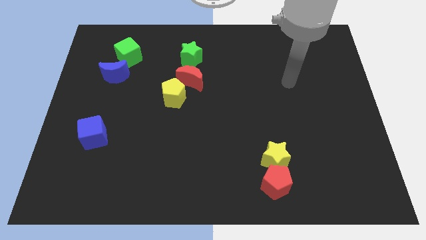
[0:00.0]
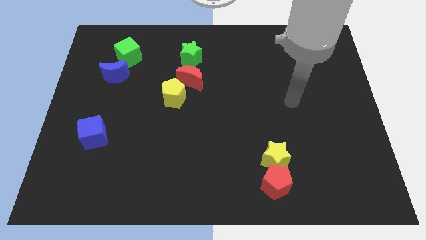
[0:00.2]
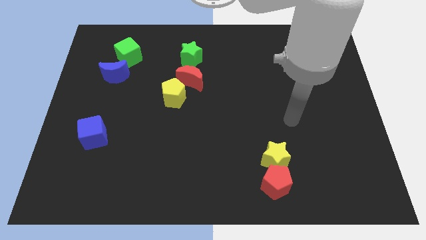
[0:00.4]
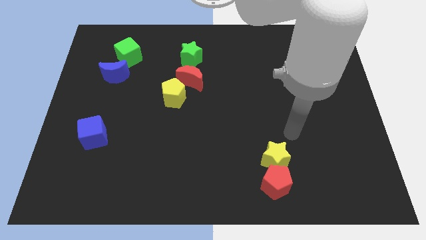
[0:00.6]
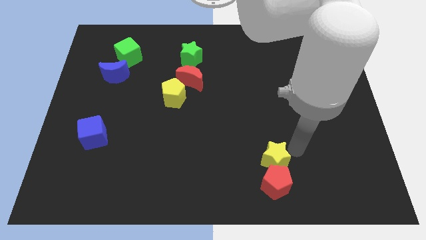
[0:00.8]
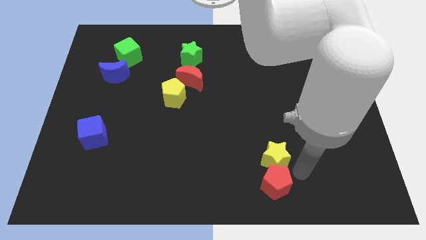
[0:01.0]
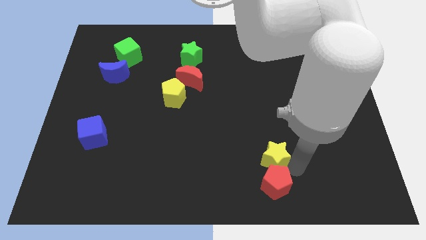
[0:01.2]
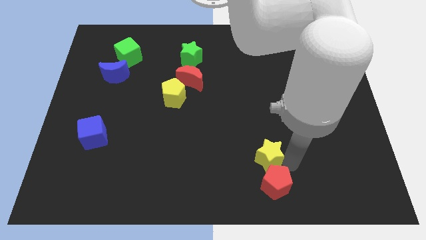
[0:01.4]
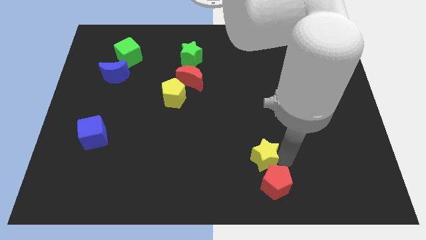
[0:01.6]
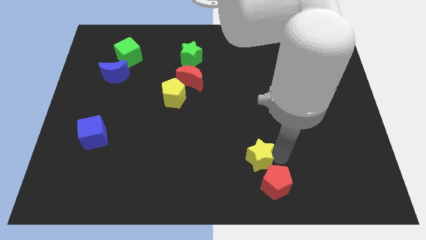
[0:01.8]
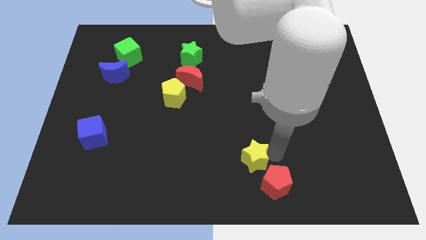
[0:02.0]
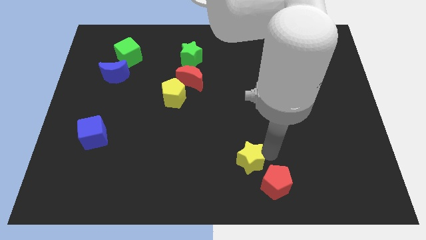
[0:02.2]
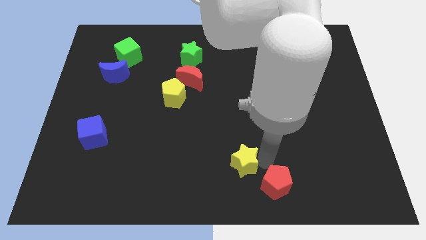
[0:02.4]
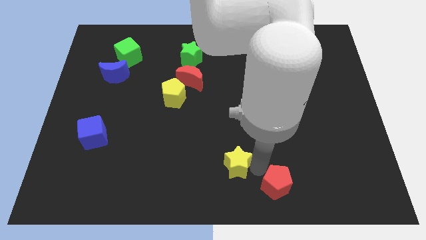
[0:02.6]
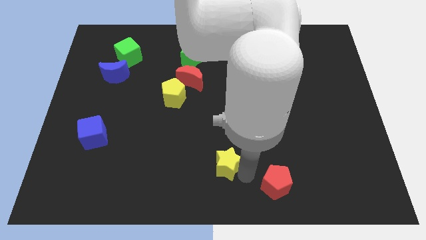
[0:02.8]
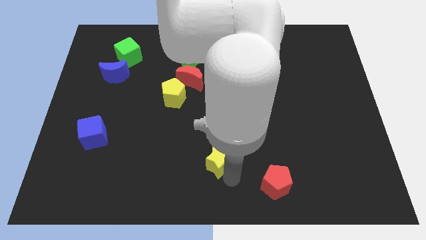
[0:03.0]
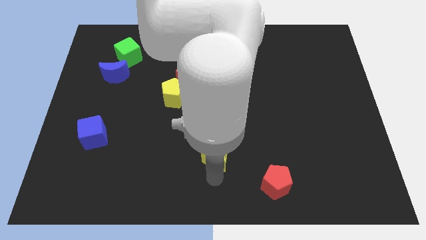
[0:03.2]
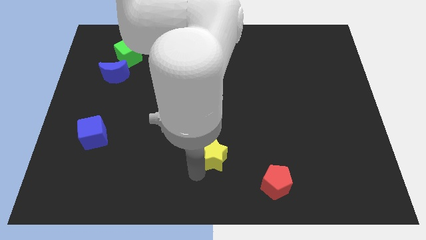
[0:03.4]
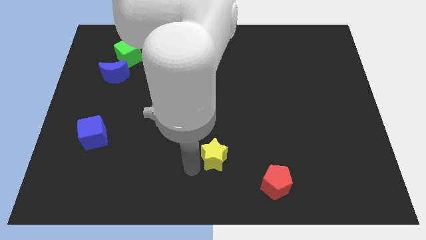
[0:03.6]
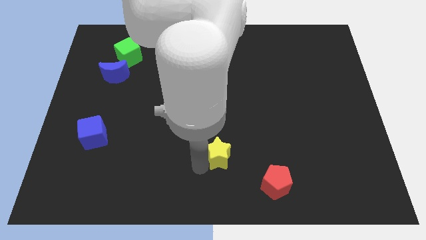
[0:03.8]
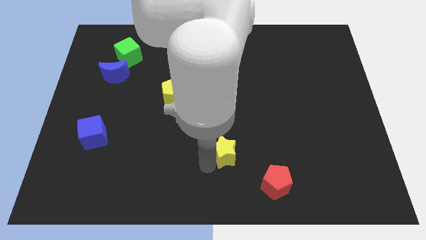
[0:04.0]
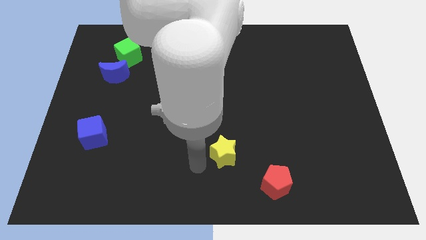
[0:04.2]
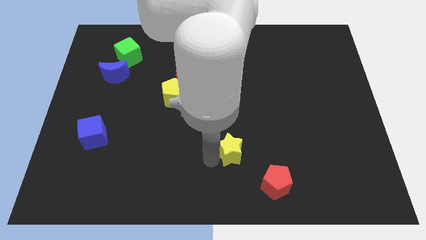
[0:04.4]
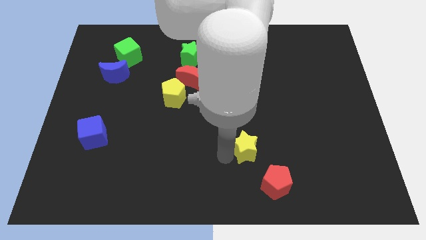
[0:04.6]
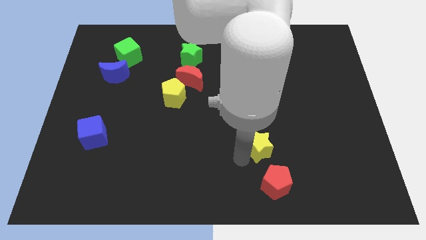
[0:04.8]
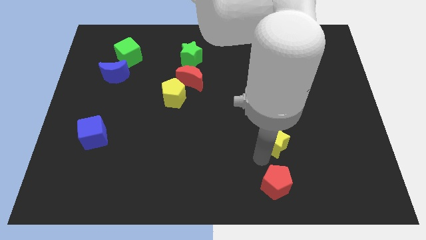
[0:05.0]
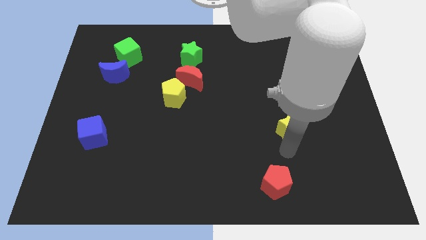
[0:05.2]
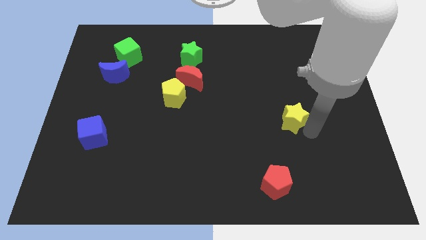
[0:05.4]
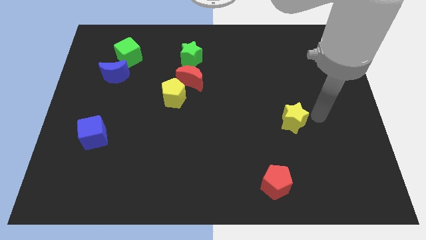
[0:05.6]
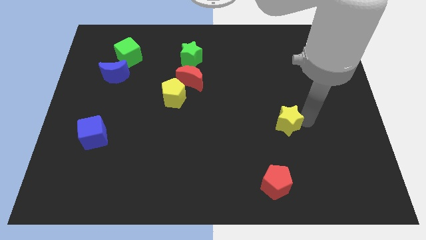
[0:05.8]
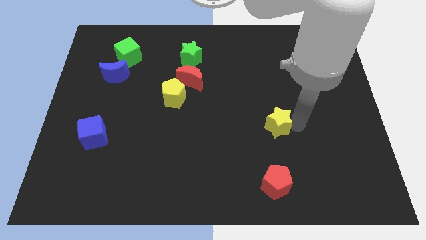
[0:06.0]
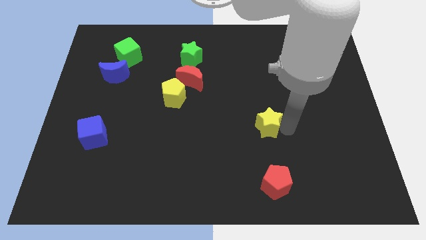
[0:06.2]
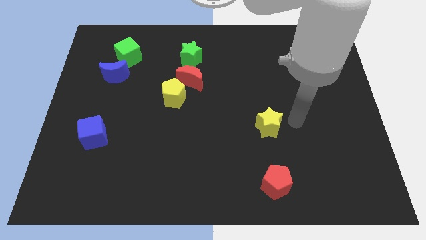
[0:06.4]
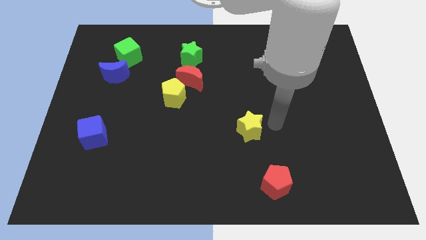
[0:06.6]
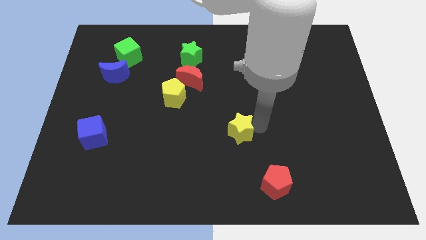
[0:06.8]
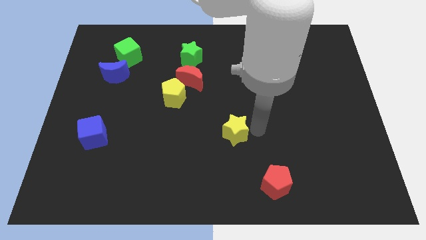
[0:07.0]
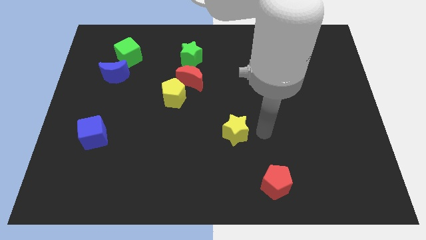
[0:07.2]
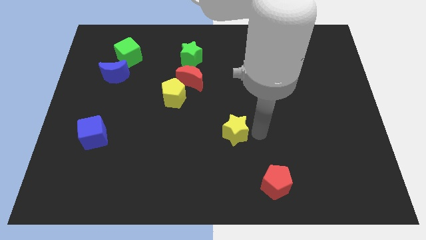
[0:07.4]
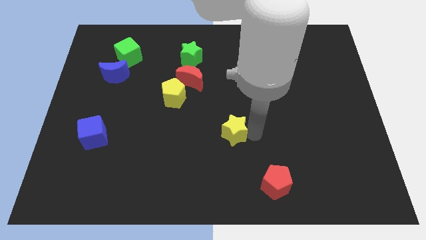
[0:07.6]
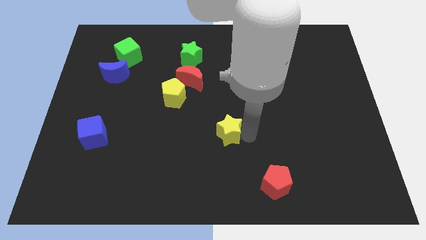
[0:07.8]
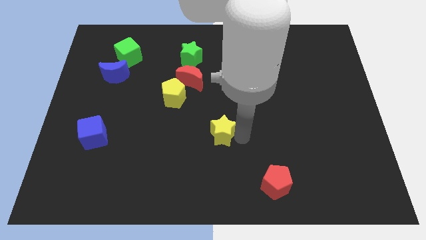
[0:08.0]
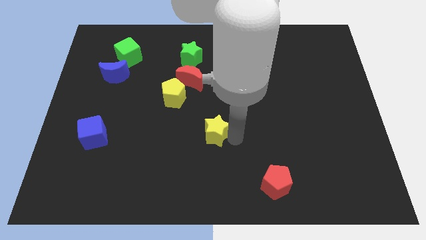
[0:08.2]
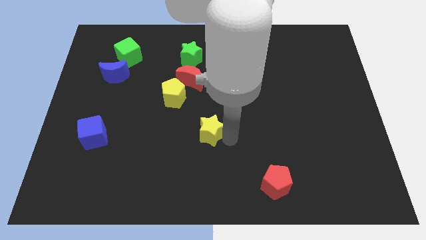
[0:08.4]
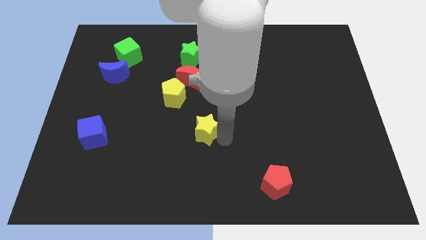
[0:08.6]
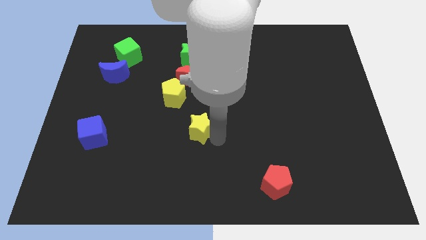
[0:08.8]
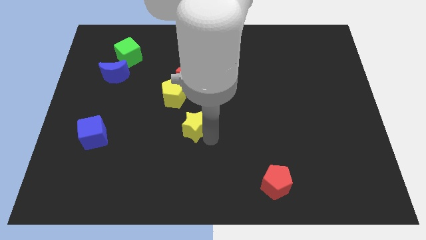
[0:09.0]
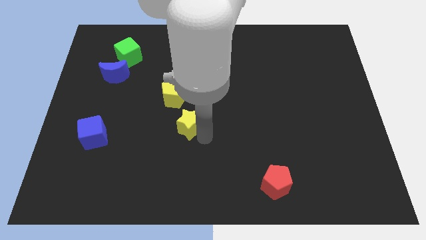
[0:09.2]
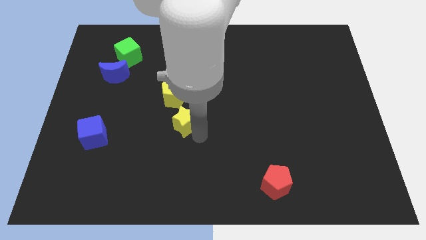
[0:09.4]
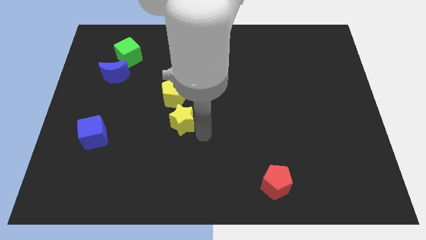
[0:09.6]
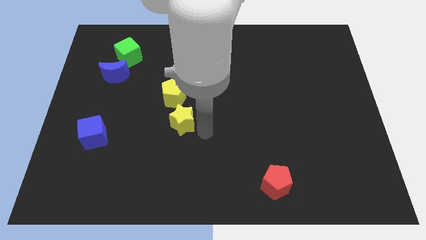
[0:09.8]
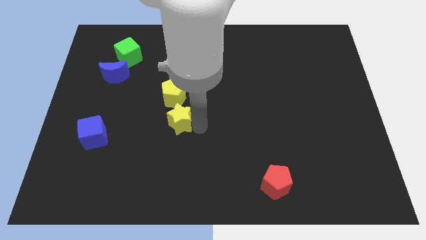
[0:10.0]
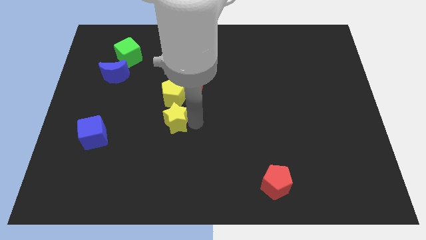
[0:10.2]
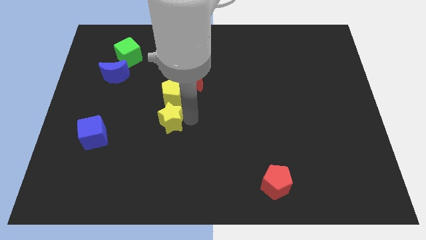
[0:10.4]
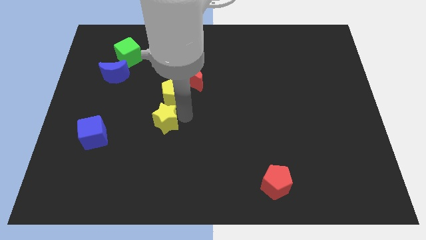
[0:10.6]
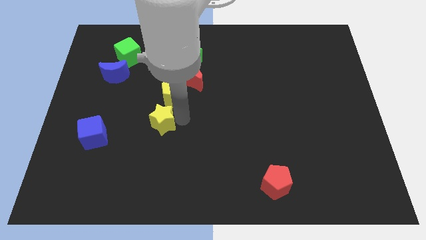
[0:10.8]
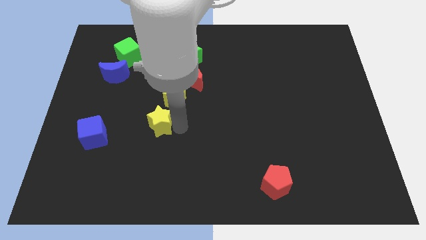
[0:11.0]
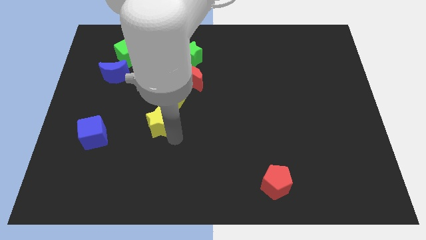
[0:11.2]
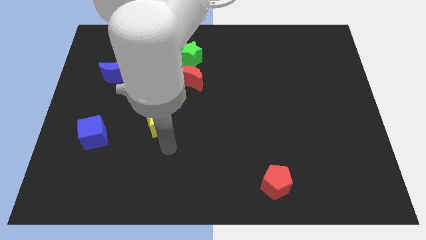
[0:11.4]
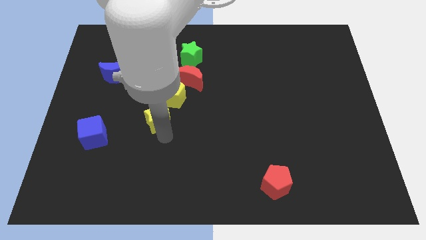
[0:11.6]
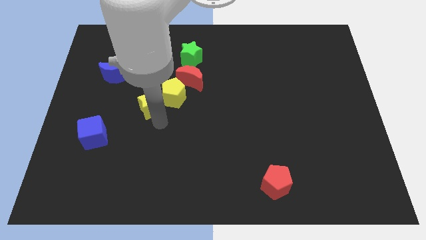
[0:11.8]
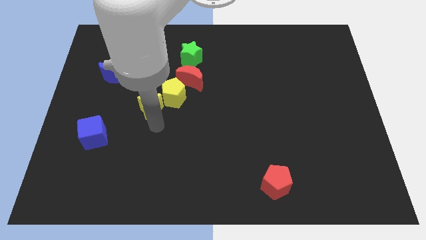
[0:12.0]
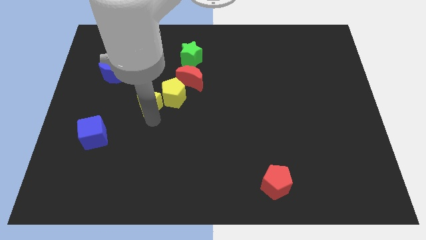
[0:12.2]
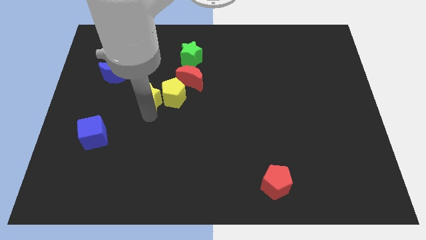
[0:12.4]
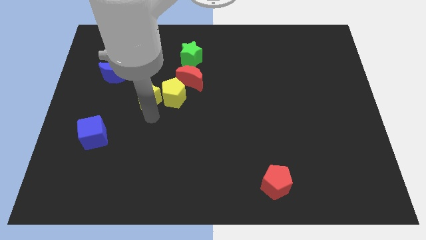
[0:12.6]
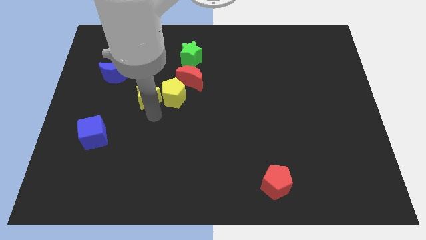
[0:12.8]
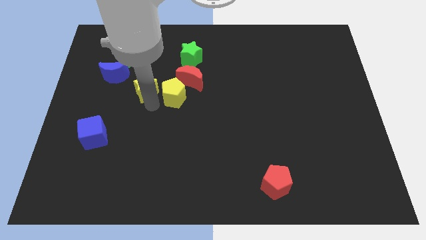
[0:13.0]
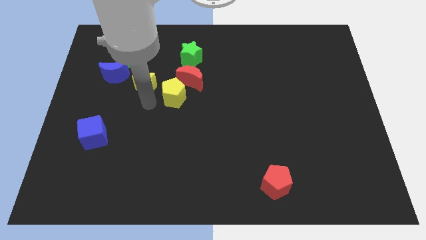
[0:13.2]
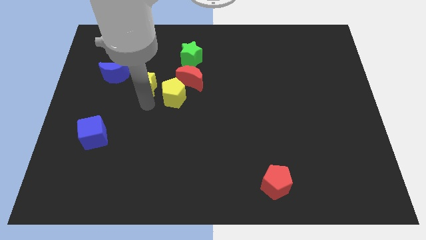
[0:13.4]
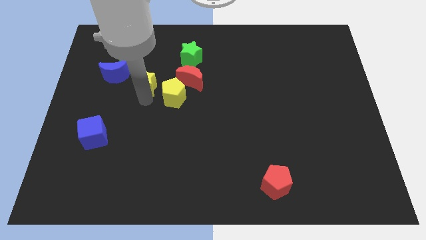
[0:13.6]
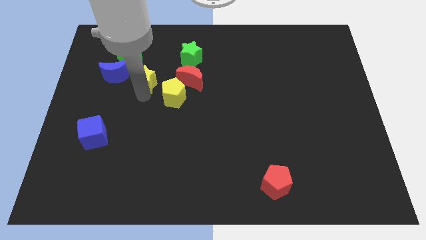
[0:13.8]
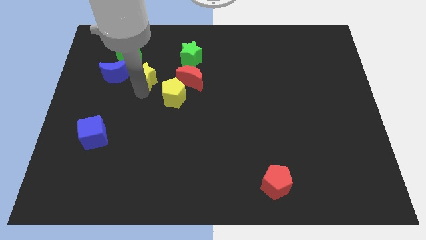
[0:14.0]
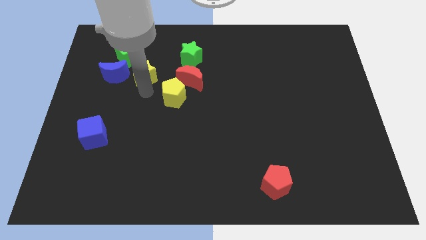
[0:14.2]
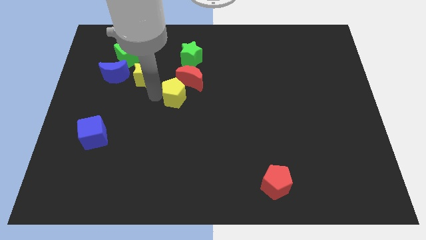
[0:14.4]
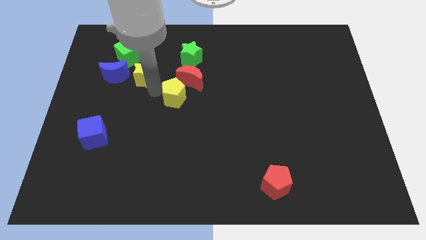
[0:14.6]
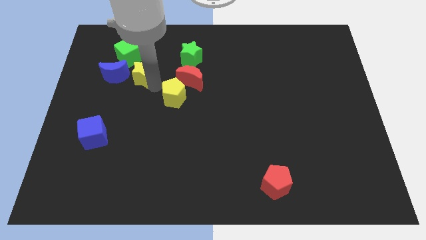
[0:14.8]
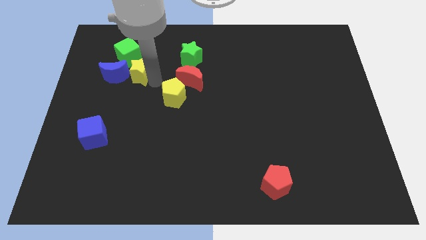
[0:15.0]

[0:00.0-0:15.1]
slide the yellow star to the top right side of the blue moon
